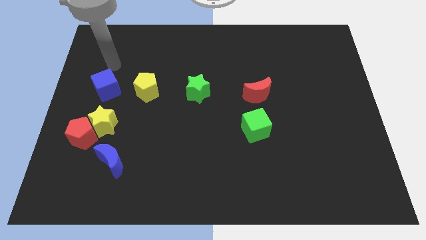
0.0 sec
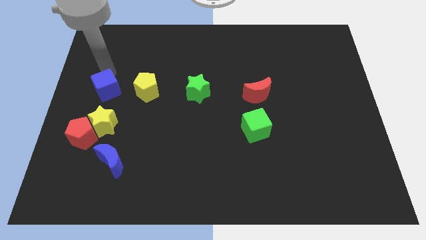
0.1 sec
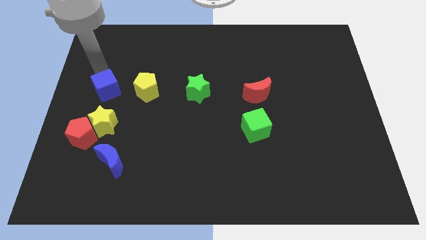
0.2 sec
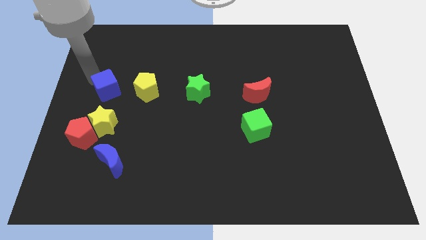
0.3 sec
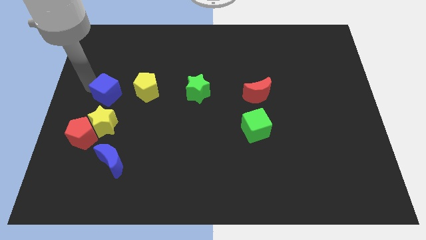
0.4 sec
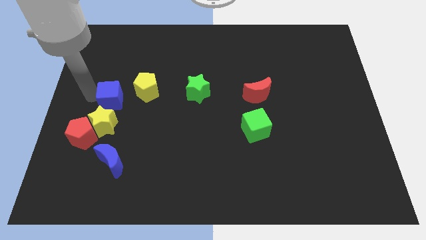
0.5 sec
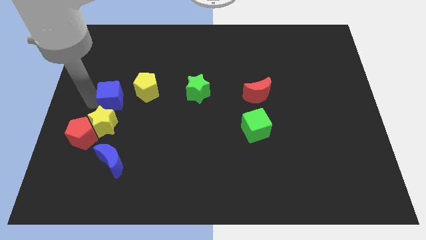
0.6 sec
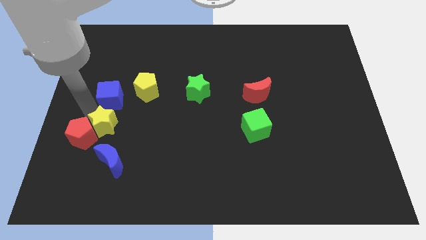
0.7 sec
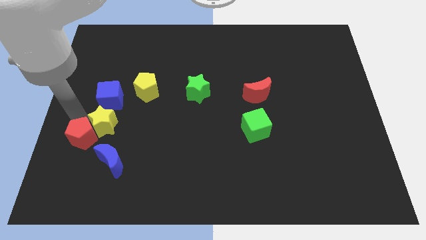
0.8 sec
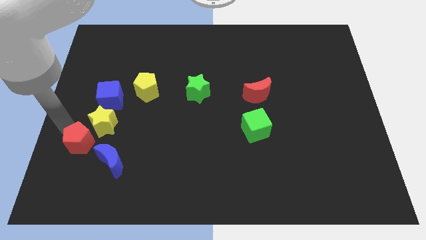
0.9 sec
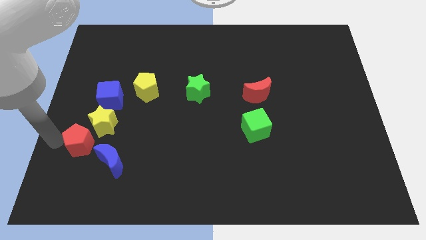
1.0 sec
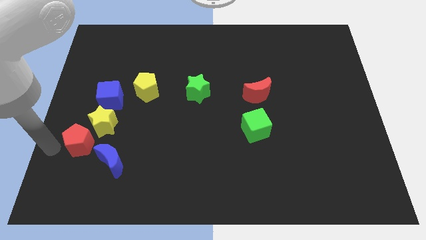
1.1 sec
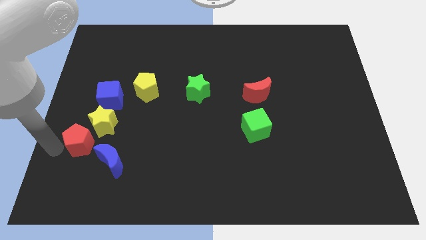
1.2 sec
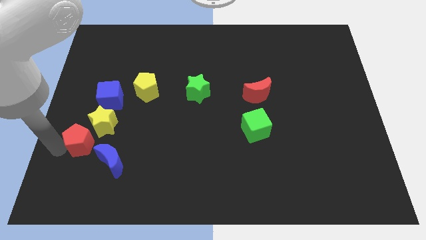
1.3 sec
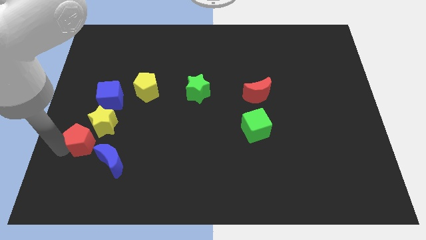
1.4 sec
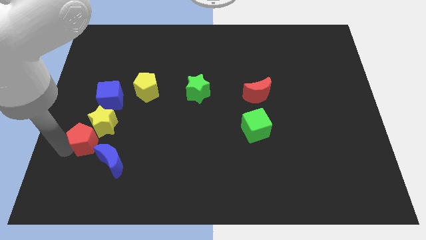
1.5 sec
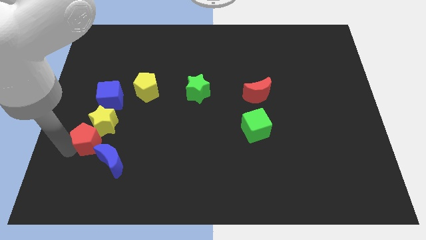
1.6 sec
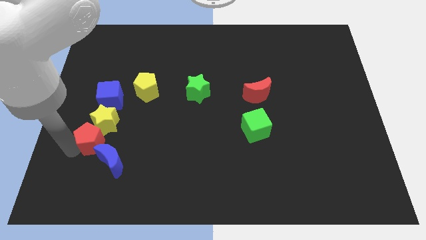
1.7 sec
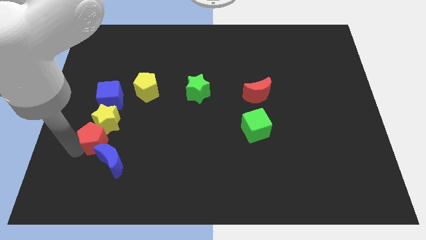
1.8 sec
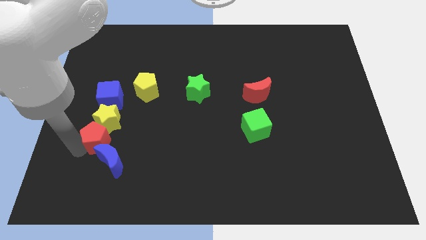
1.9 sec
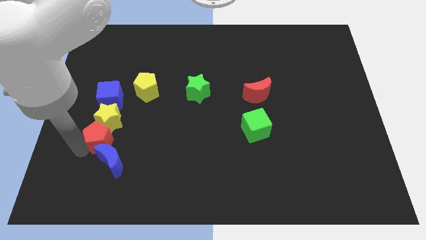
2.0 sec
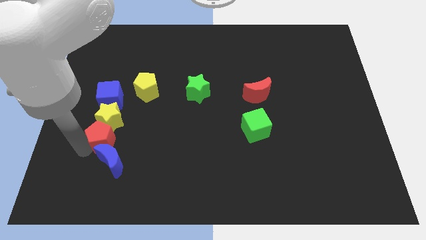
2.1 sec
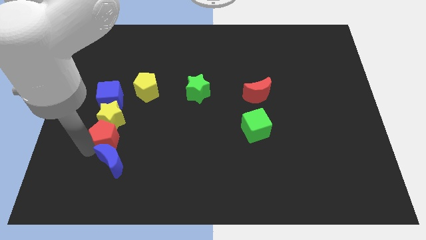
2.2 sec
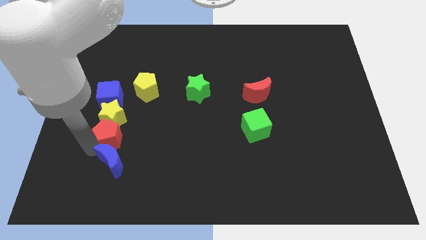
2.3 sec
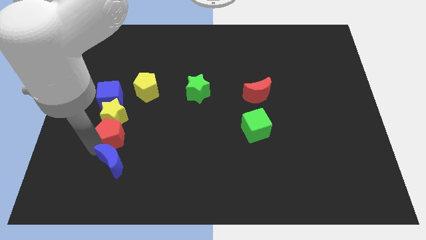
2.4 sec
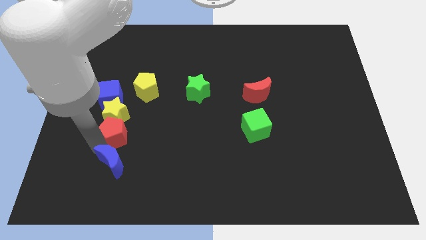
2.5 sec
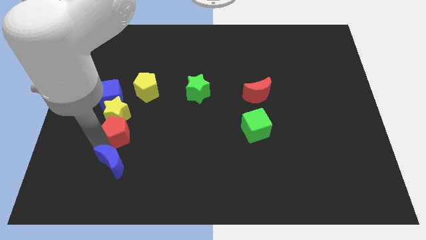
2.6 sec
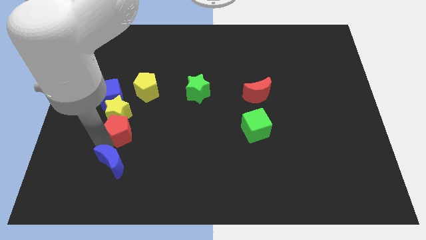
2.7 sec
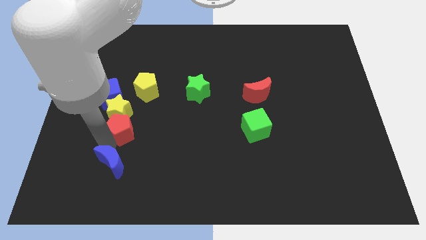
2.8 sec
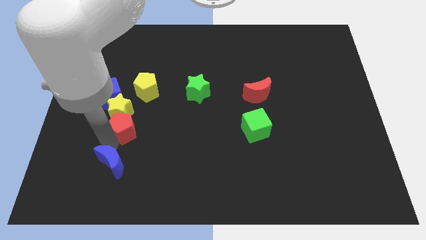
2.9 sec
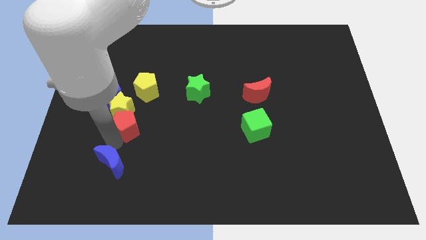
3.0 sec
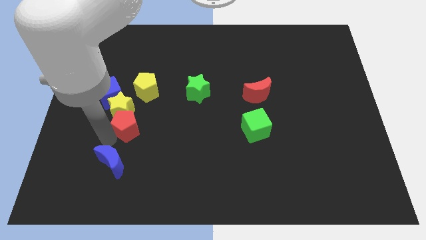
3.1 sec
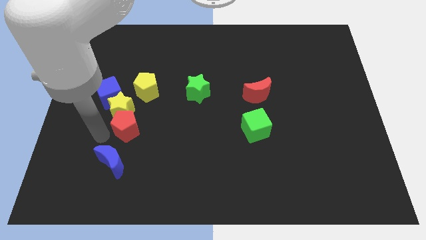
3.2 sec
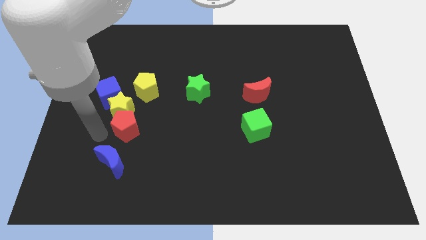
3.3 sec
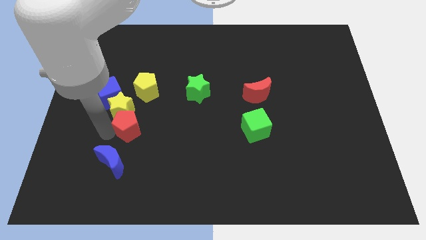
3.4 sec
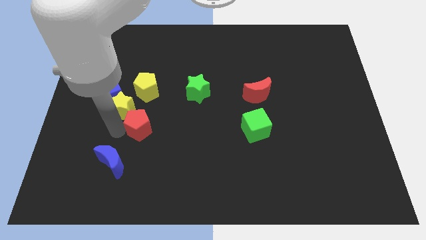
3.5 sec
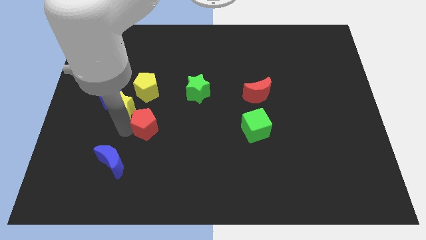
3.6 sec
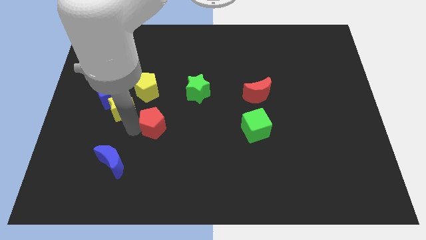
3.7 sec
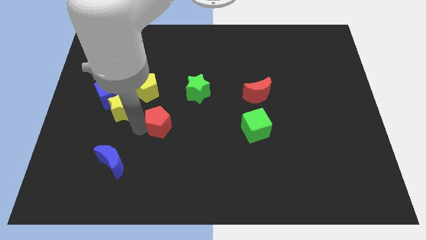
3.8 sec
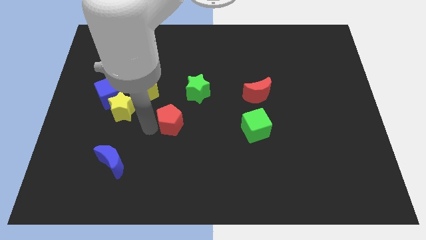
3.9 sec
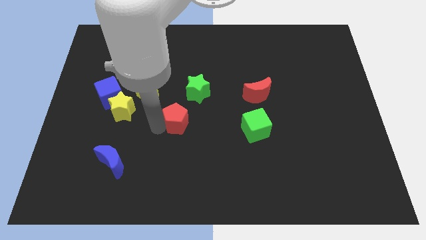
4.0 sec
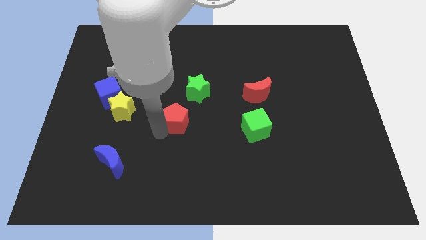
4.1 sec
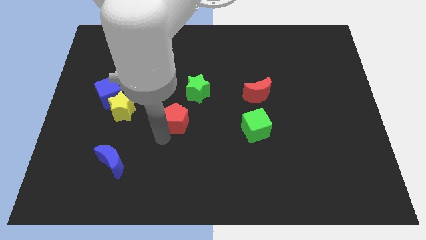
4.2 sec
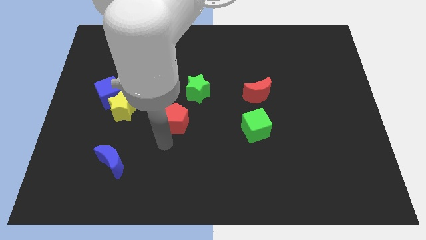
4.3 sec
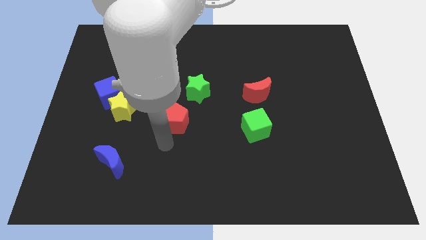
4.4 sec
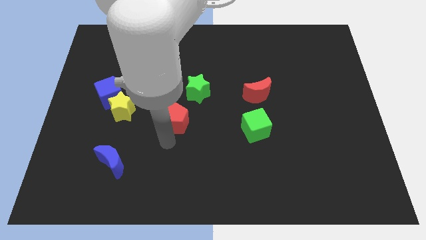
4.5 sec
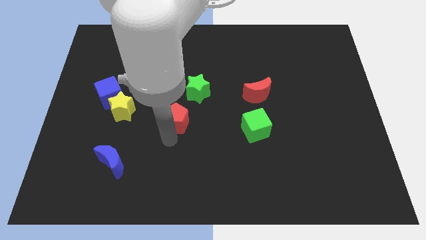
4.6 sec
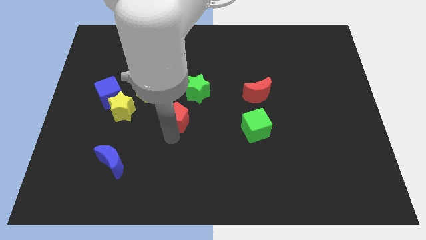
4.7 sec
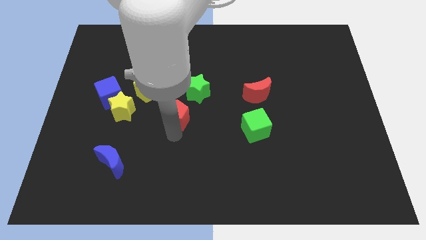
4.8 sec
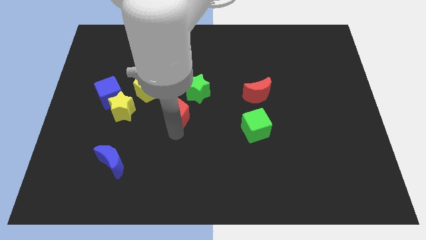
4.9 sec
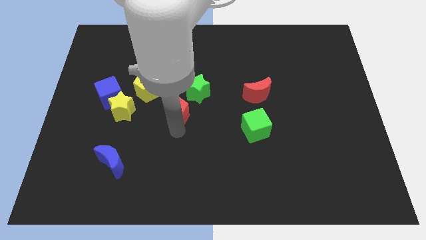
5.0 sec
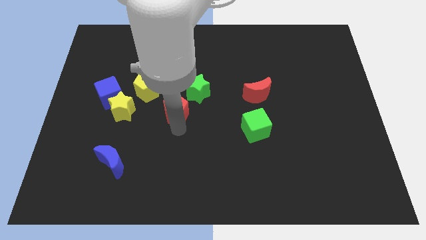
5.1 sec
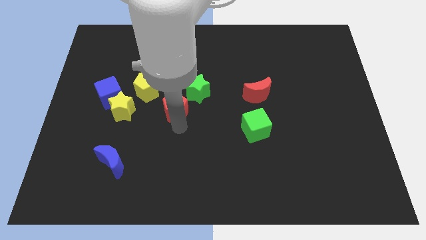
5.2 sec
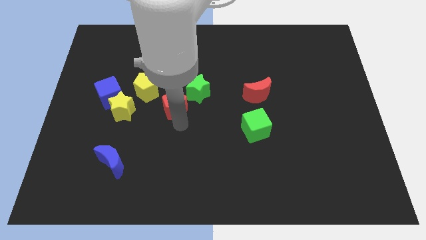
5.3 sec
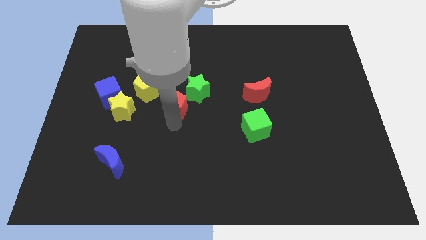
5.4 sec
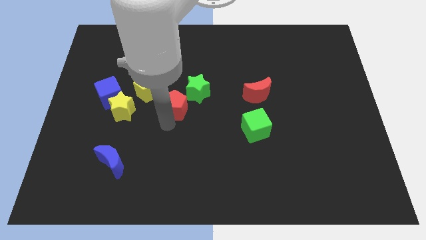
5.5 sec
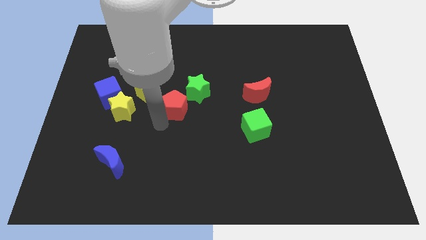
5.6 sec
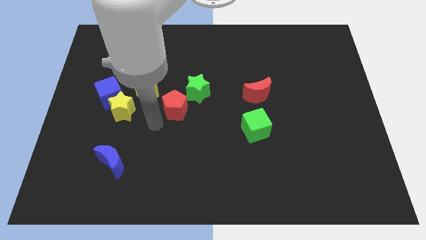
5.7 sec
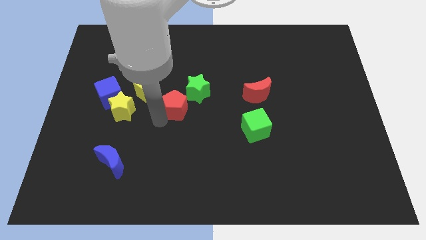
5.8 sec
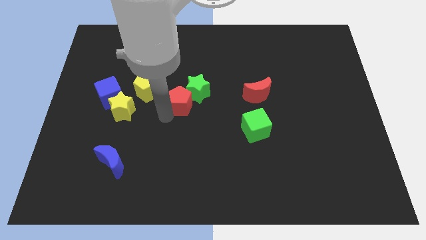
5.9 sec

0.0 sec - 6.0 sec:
slide the red pentagon close to the green star
